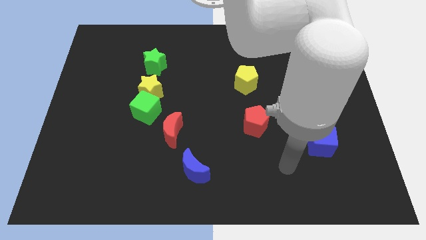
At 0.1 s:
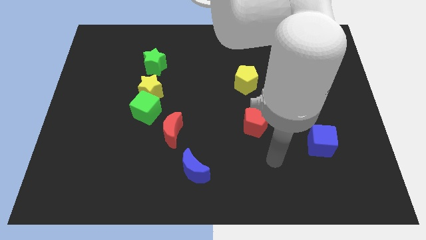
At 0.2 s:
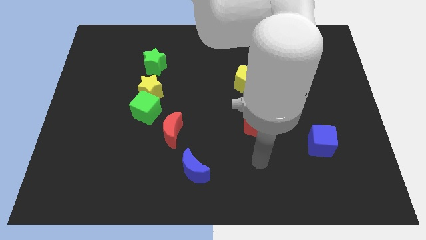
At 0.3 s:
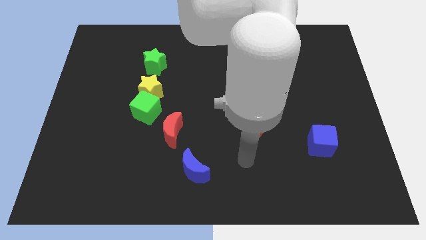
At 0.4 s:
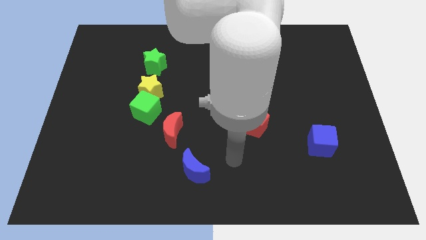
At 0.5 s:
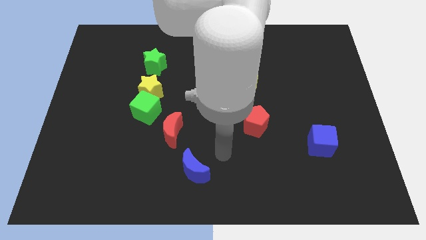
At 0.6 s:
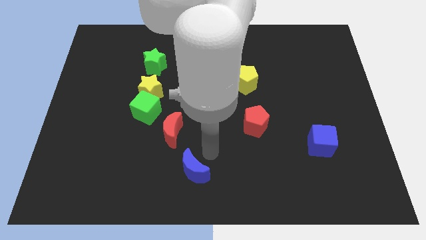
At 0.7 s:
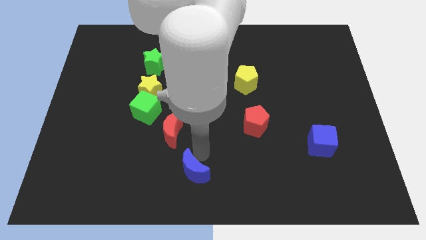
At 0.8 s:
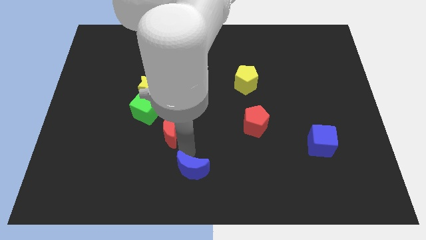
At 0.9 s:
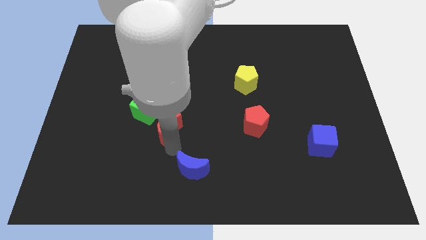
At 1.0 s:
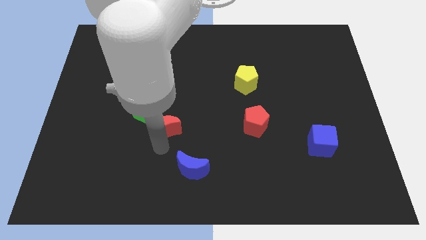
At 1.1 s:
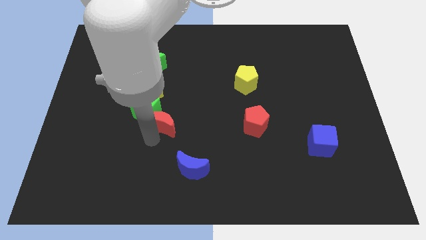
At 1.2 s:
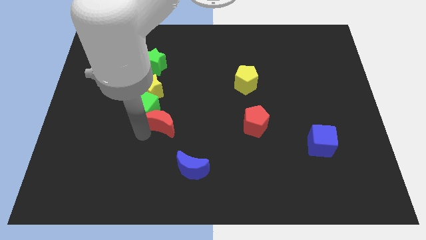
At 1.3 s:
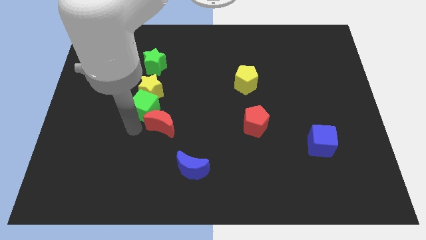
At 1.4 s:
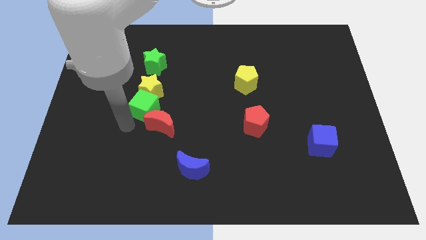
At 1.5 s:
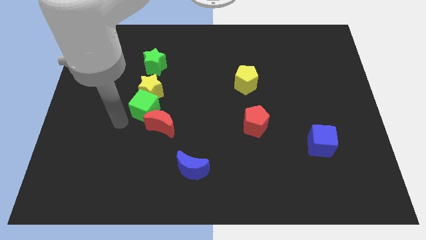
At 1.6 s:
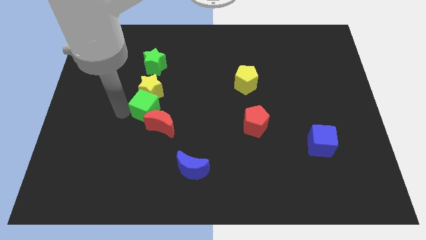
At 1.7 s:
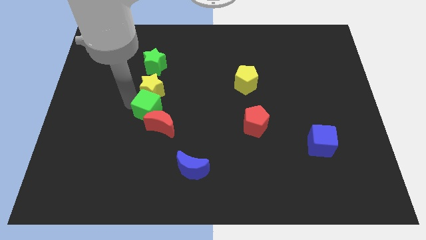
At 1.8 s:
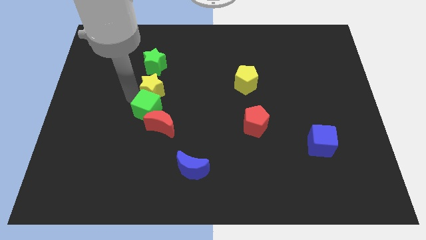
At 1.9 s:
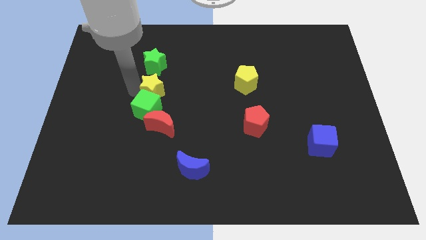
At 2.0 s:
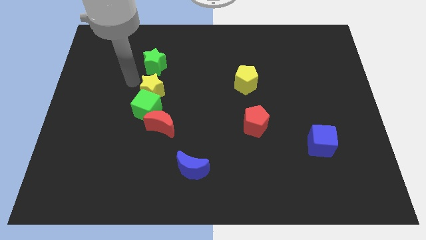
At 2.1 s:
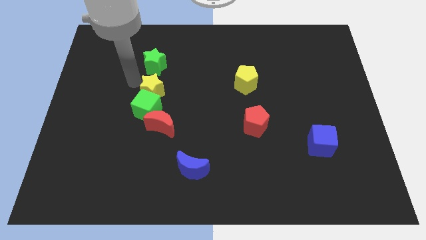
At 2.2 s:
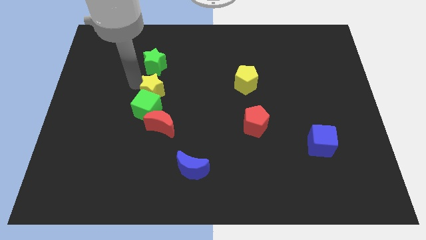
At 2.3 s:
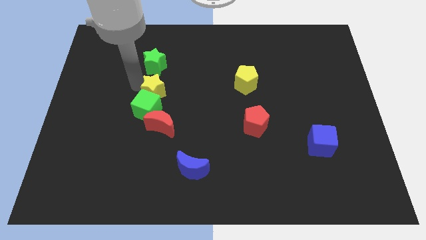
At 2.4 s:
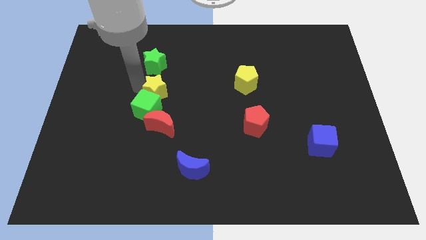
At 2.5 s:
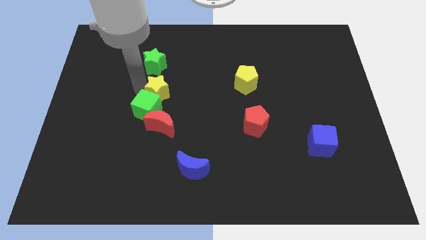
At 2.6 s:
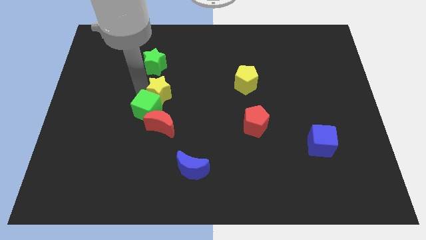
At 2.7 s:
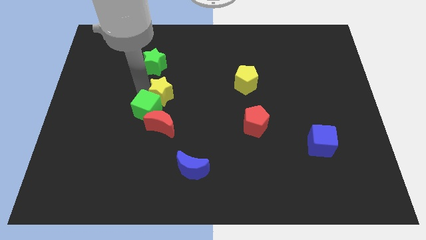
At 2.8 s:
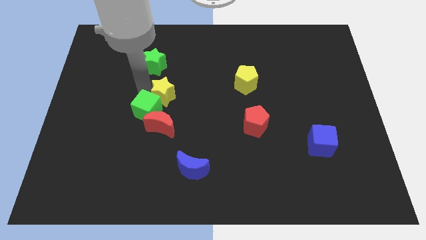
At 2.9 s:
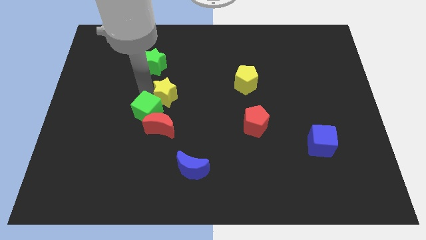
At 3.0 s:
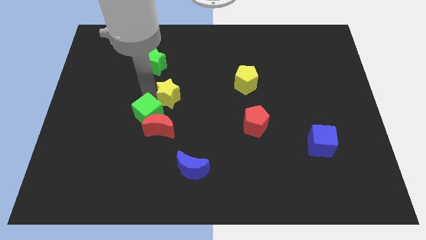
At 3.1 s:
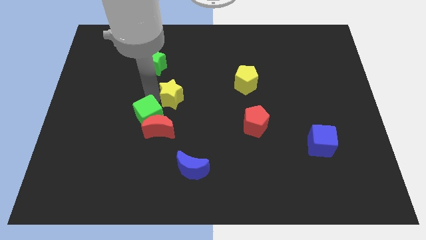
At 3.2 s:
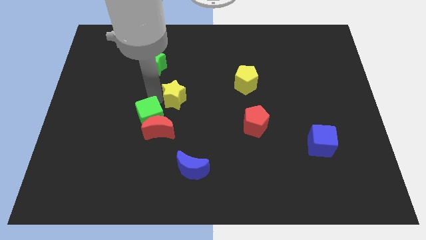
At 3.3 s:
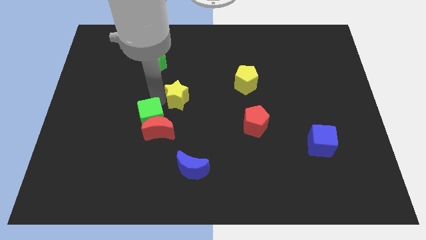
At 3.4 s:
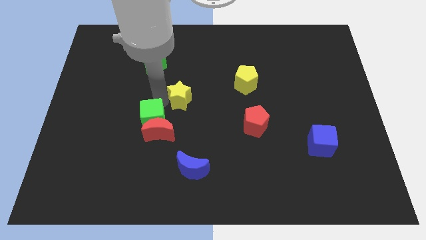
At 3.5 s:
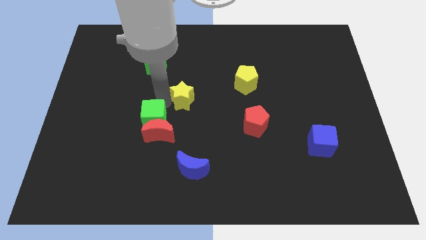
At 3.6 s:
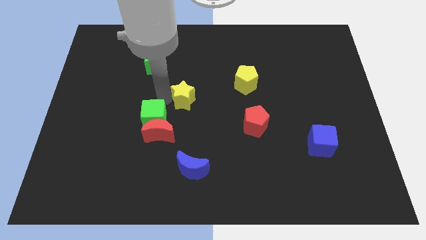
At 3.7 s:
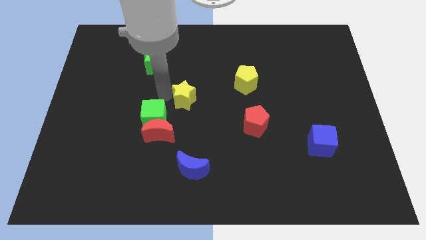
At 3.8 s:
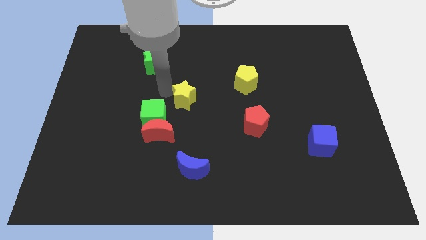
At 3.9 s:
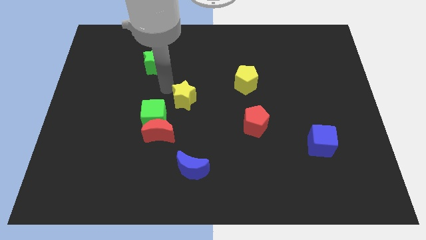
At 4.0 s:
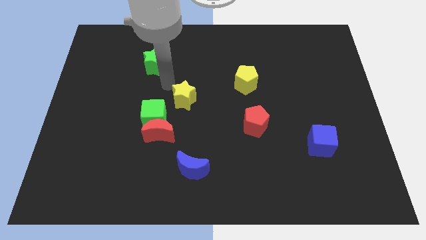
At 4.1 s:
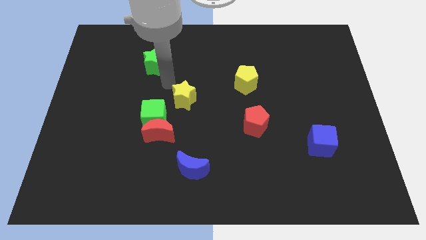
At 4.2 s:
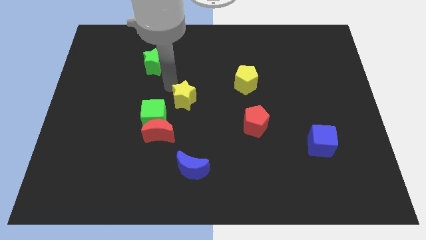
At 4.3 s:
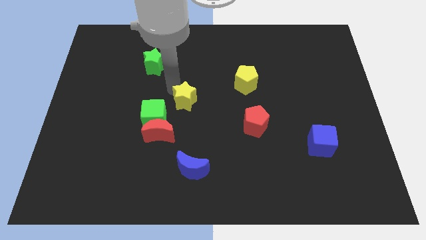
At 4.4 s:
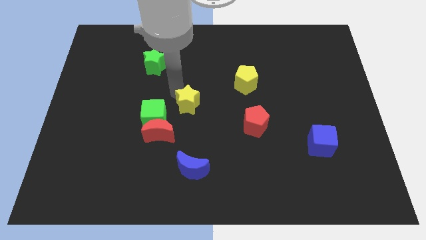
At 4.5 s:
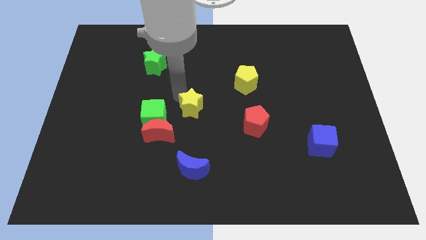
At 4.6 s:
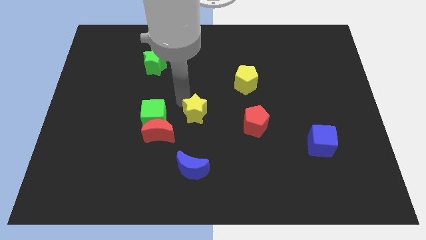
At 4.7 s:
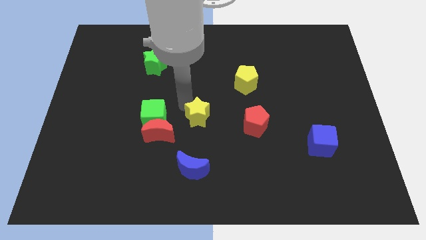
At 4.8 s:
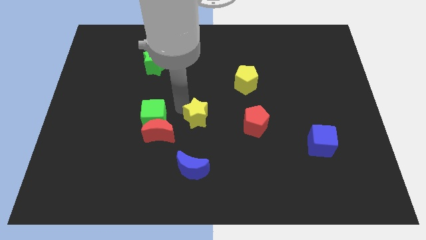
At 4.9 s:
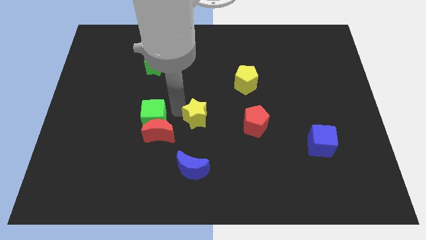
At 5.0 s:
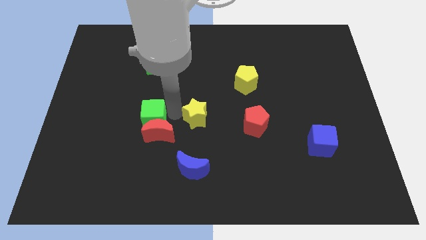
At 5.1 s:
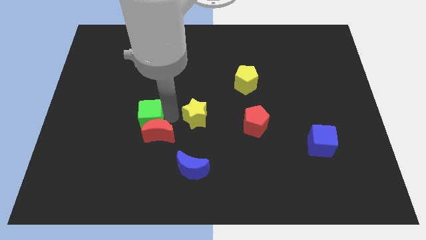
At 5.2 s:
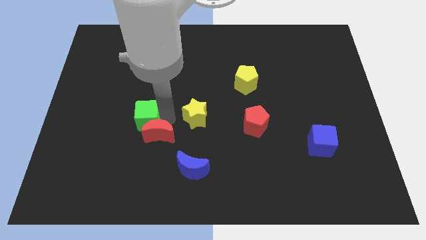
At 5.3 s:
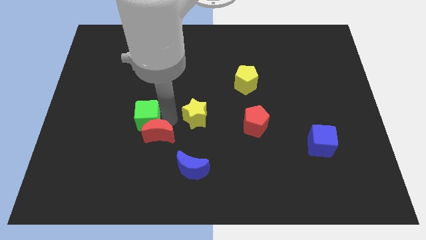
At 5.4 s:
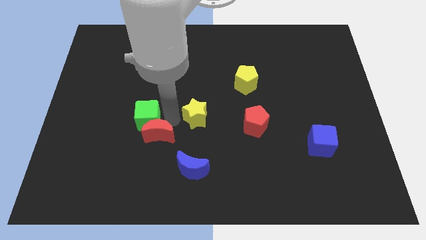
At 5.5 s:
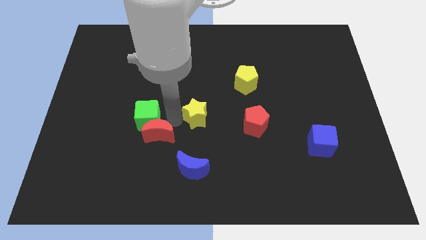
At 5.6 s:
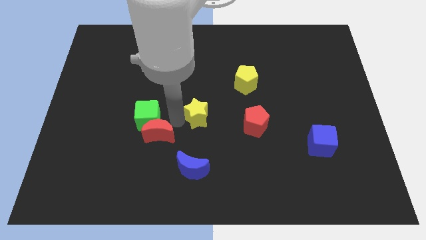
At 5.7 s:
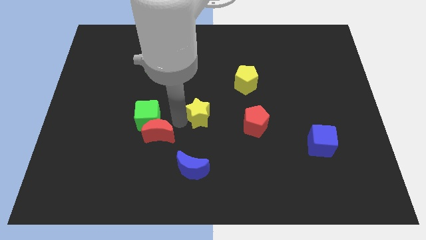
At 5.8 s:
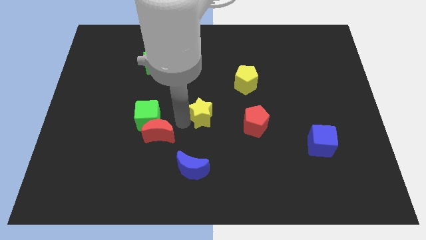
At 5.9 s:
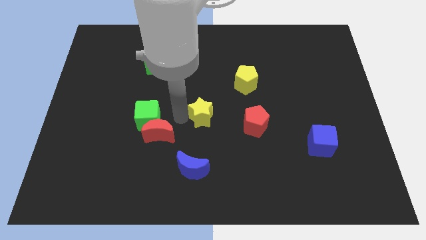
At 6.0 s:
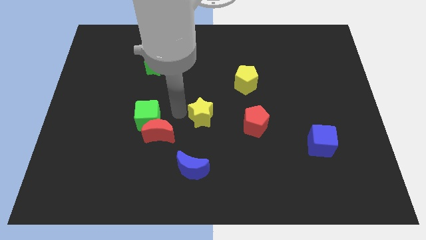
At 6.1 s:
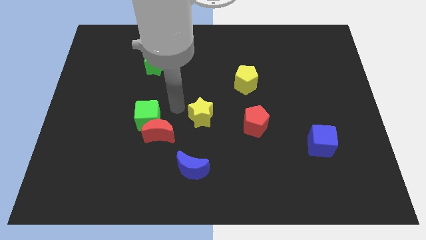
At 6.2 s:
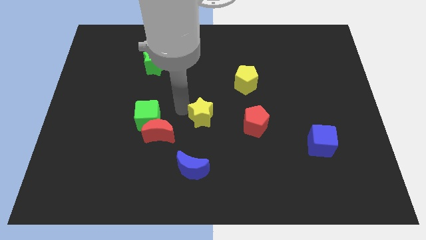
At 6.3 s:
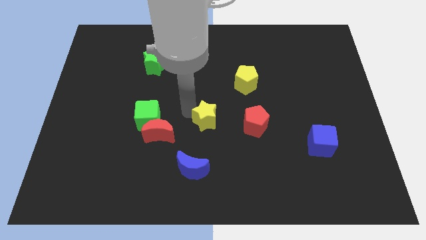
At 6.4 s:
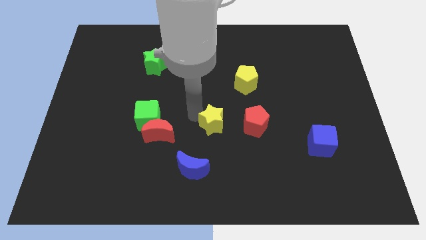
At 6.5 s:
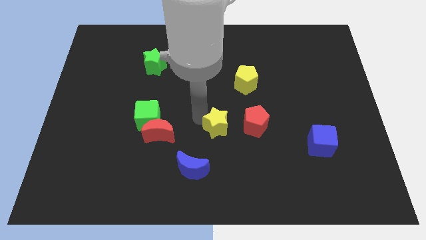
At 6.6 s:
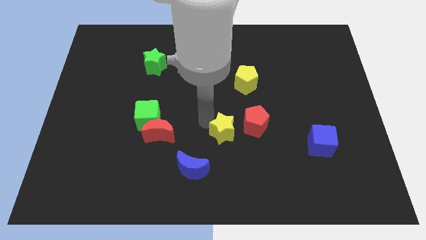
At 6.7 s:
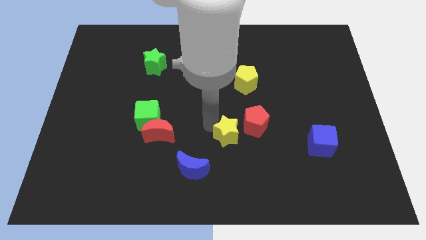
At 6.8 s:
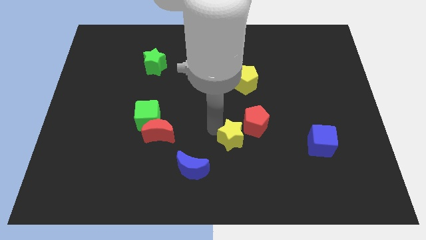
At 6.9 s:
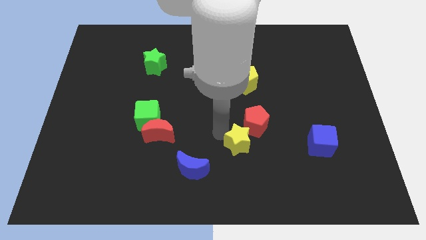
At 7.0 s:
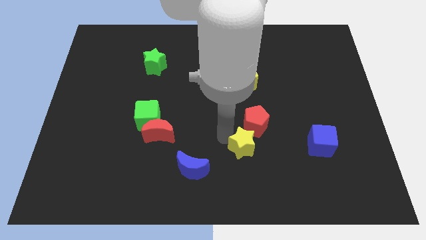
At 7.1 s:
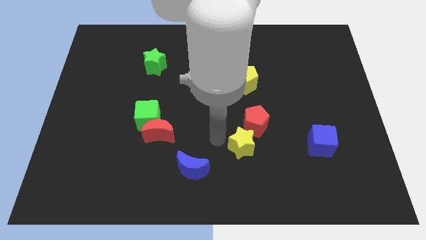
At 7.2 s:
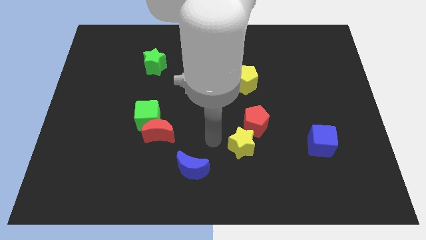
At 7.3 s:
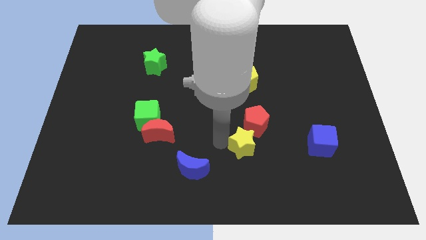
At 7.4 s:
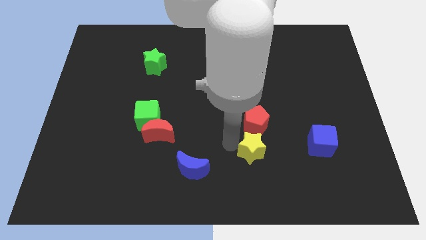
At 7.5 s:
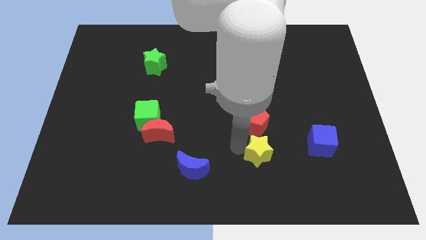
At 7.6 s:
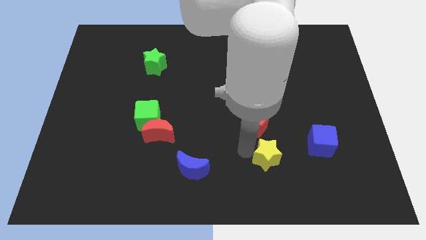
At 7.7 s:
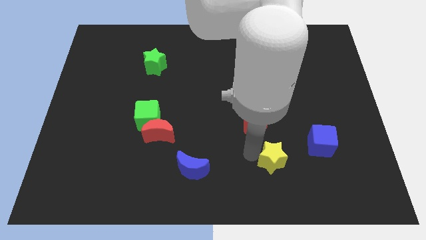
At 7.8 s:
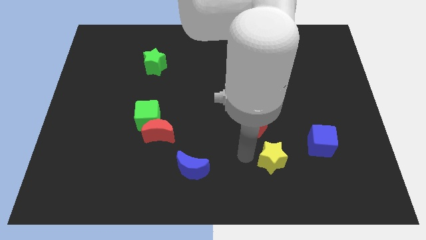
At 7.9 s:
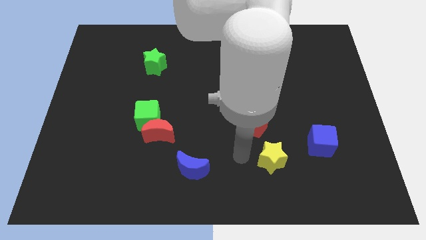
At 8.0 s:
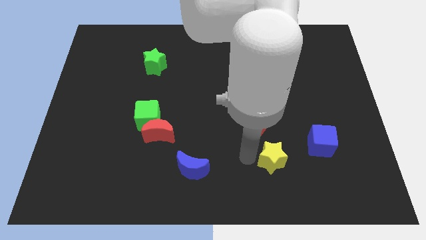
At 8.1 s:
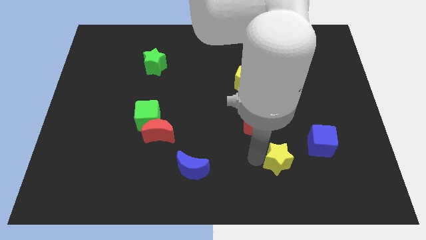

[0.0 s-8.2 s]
slide the yellow star to the bottom left side of the blue cube
